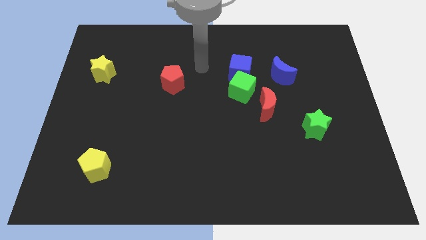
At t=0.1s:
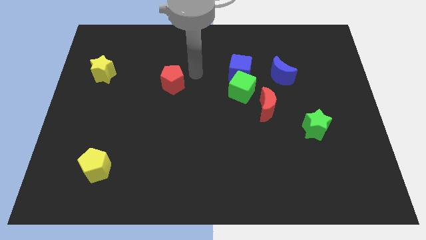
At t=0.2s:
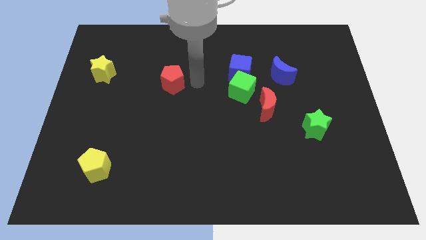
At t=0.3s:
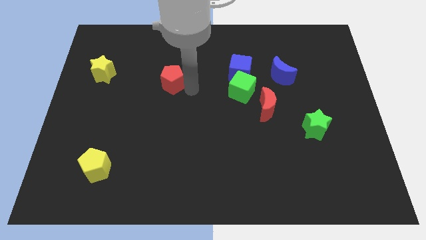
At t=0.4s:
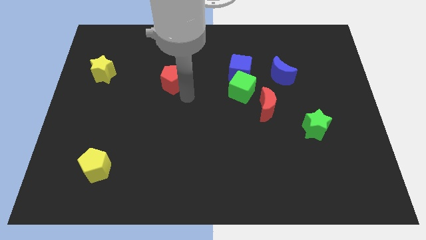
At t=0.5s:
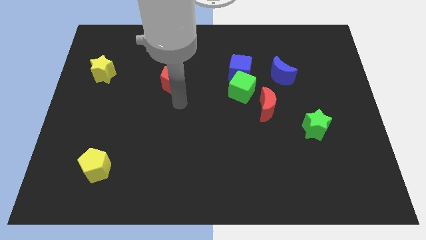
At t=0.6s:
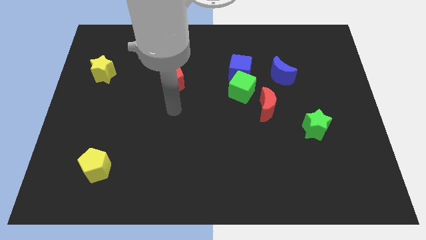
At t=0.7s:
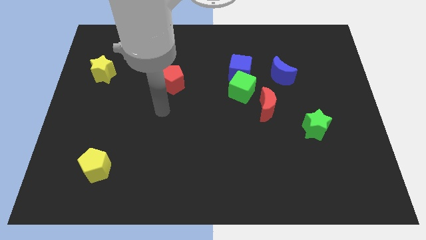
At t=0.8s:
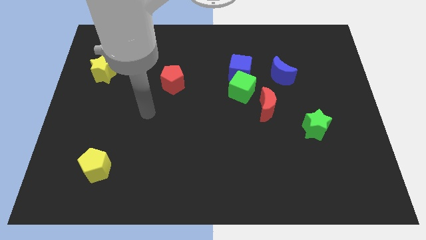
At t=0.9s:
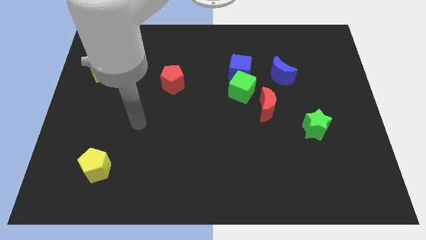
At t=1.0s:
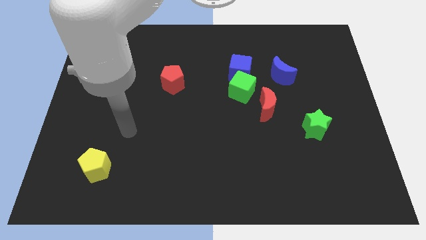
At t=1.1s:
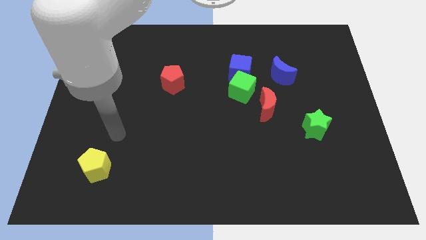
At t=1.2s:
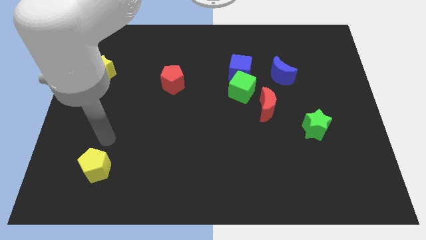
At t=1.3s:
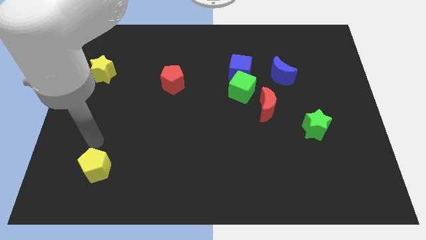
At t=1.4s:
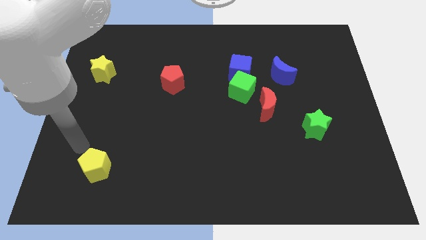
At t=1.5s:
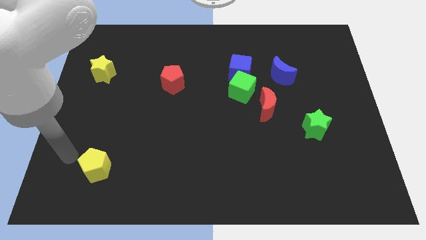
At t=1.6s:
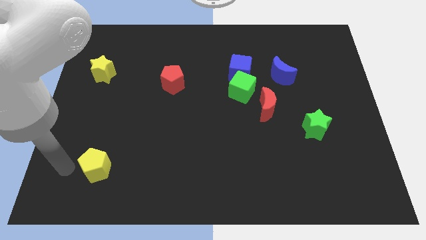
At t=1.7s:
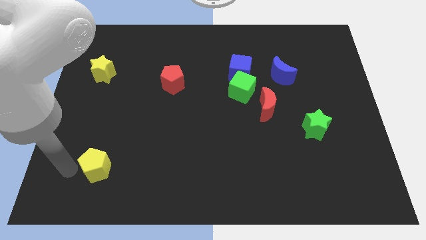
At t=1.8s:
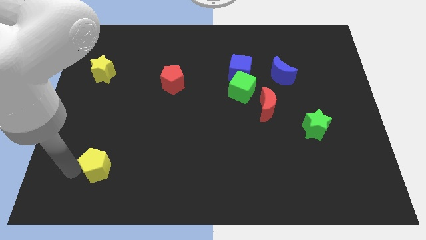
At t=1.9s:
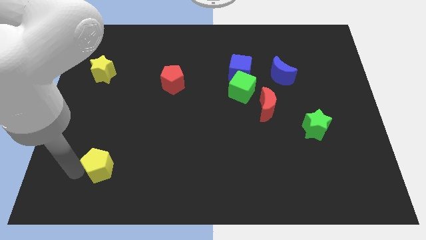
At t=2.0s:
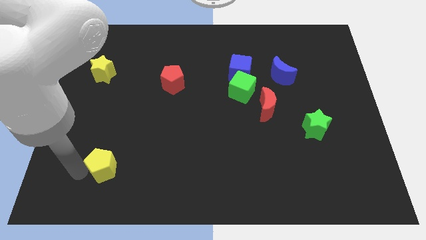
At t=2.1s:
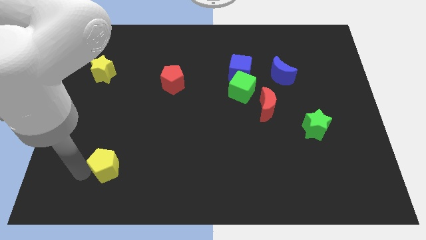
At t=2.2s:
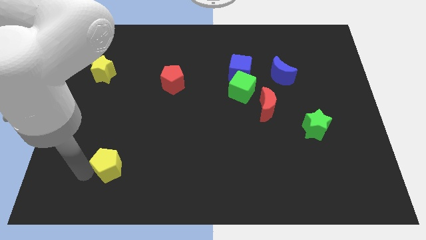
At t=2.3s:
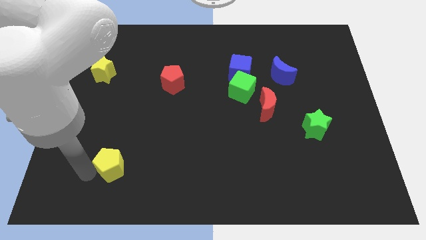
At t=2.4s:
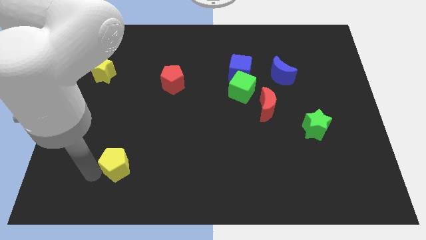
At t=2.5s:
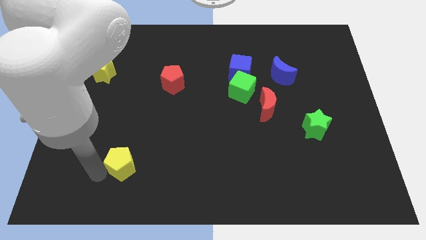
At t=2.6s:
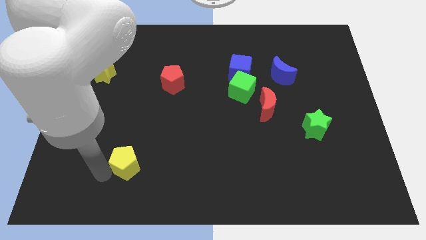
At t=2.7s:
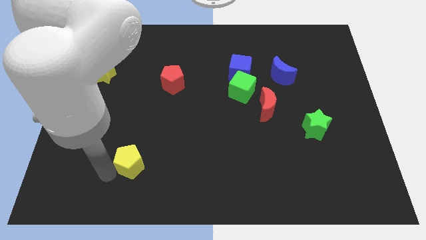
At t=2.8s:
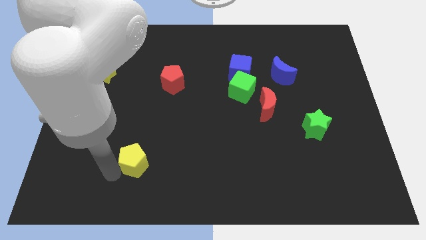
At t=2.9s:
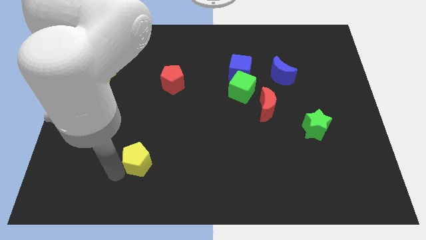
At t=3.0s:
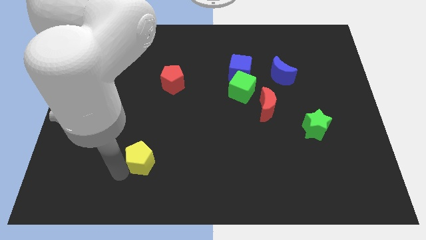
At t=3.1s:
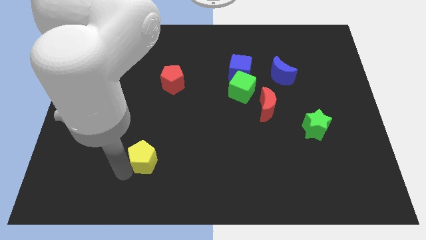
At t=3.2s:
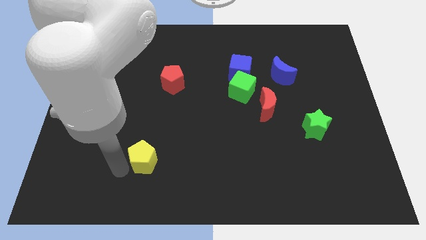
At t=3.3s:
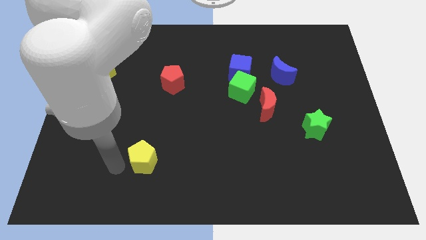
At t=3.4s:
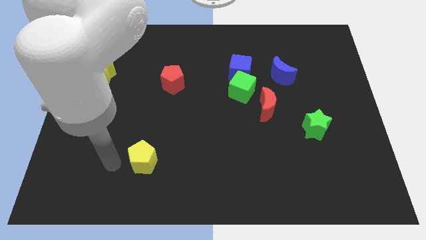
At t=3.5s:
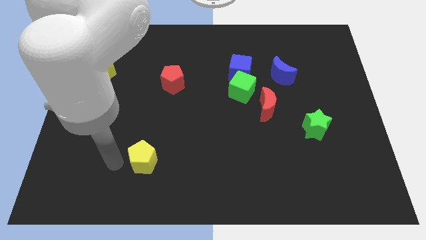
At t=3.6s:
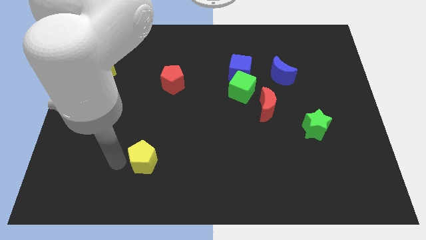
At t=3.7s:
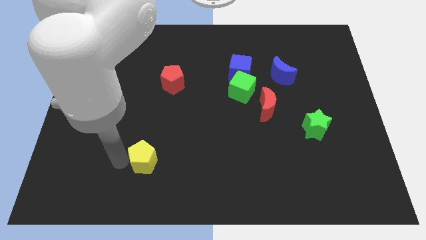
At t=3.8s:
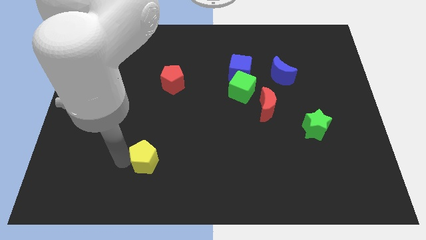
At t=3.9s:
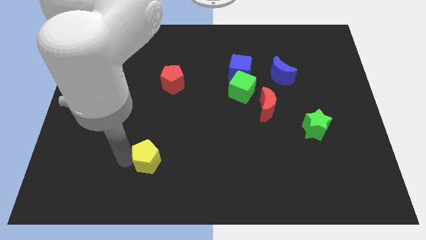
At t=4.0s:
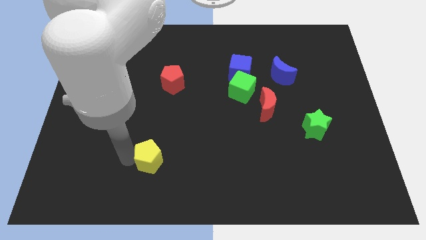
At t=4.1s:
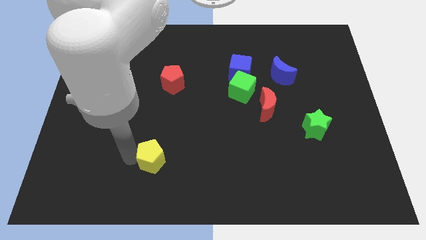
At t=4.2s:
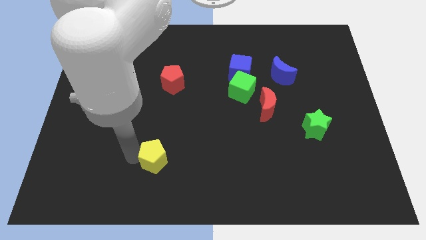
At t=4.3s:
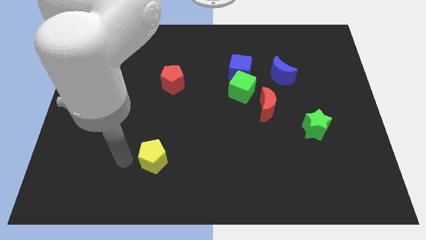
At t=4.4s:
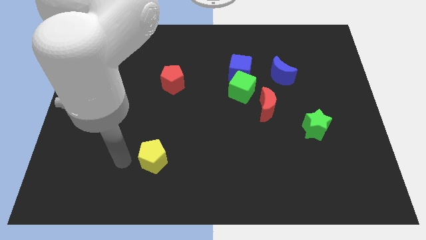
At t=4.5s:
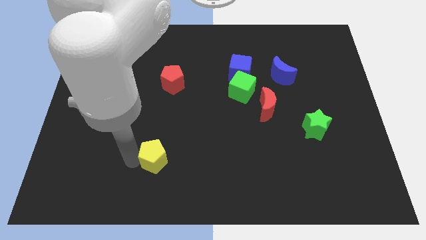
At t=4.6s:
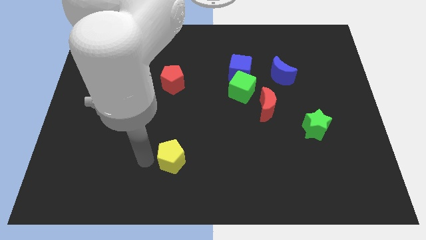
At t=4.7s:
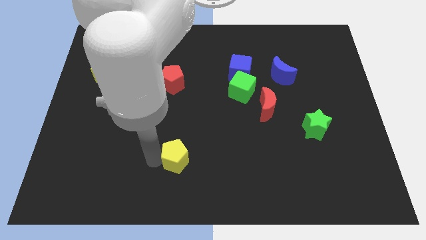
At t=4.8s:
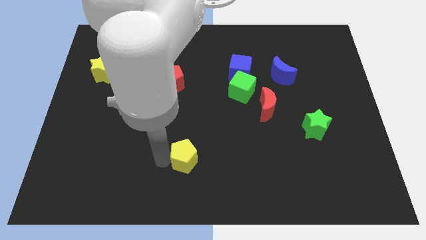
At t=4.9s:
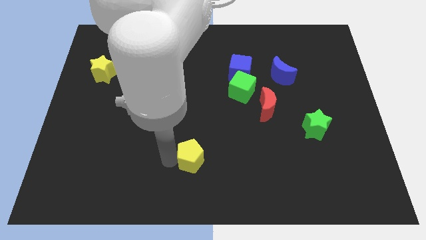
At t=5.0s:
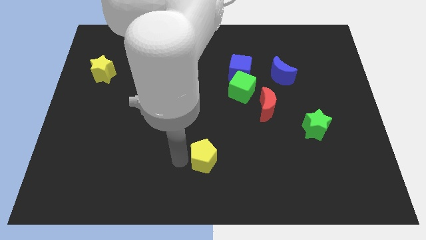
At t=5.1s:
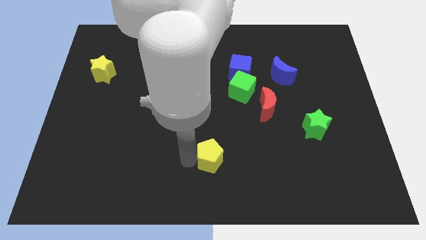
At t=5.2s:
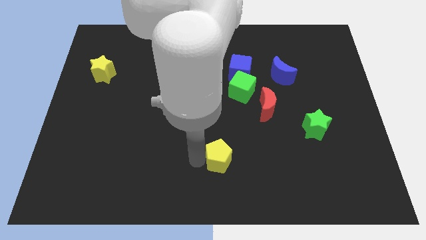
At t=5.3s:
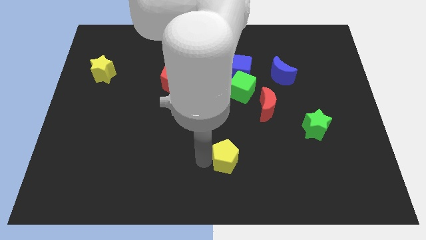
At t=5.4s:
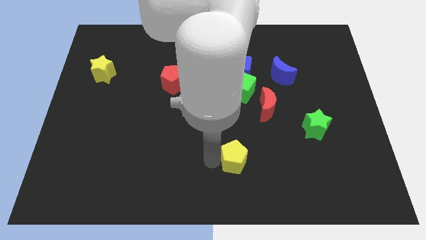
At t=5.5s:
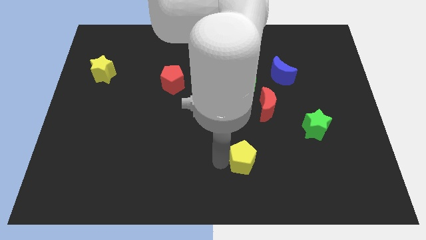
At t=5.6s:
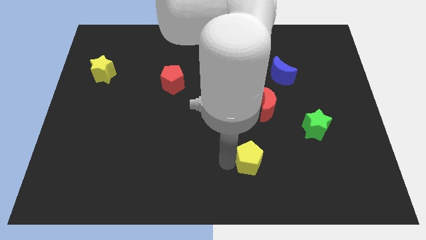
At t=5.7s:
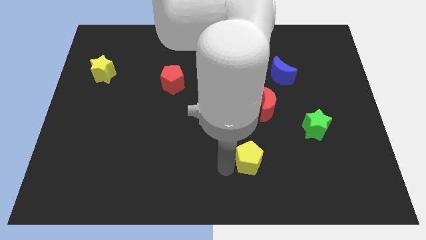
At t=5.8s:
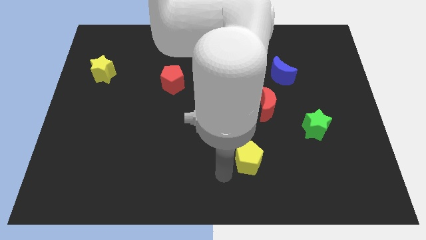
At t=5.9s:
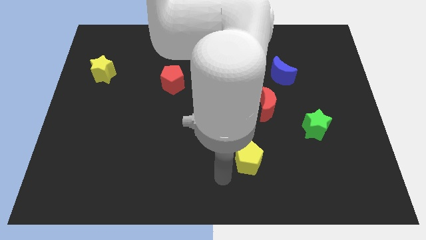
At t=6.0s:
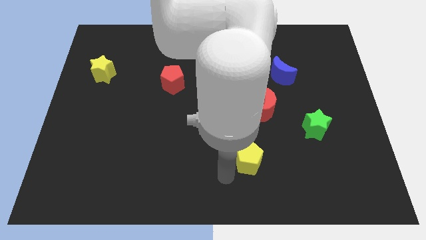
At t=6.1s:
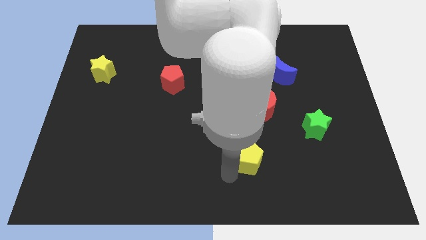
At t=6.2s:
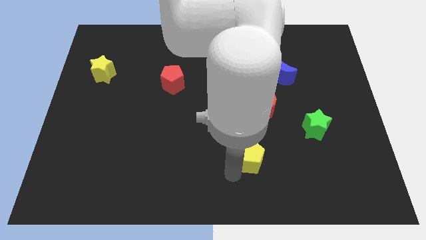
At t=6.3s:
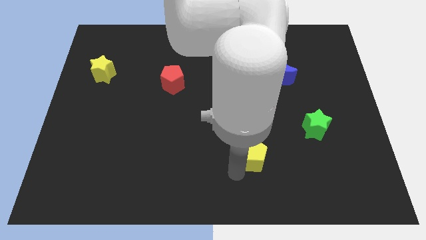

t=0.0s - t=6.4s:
move the yellow pentagon below the red moon

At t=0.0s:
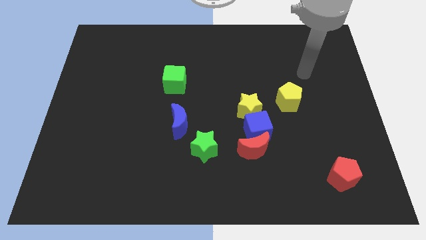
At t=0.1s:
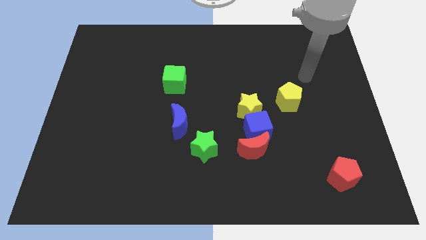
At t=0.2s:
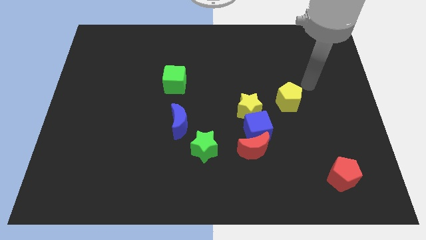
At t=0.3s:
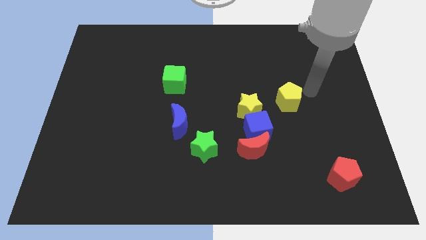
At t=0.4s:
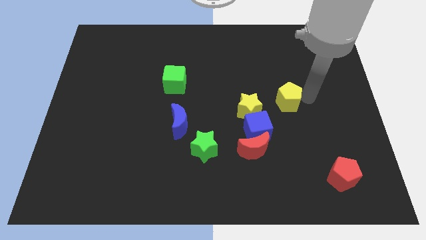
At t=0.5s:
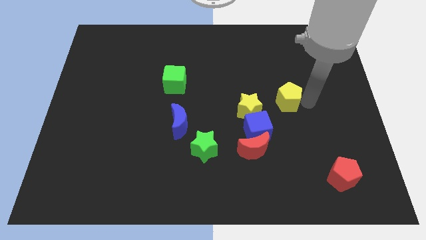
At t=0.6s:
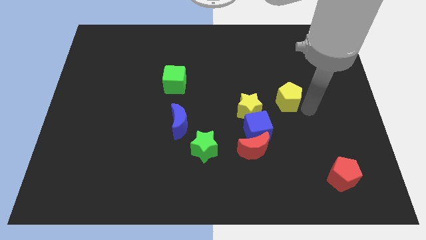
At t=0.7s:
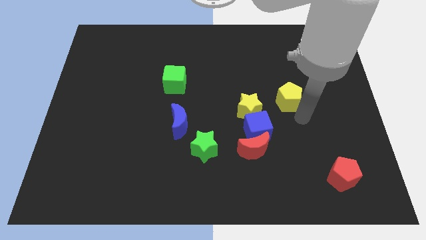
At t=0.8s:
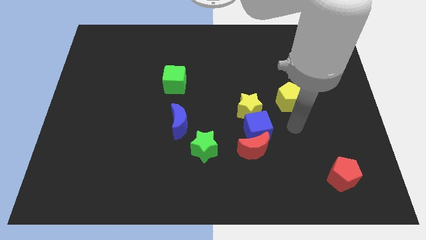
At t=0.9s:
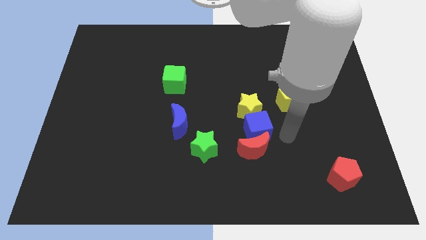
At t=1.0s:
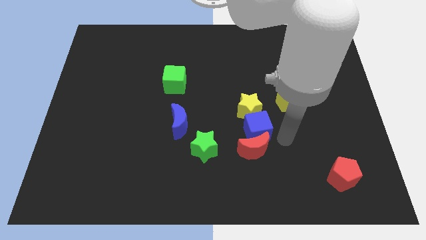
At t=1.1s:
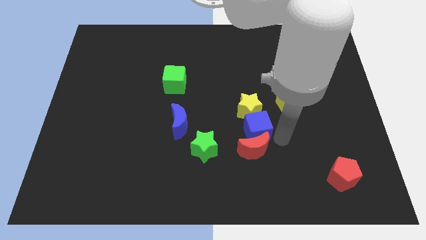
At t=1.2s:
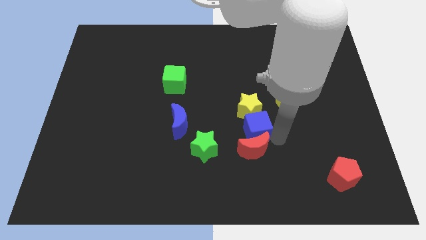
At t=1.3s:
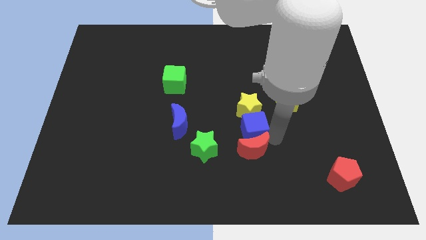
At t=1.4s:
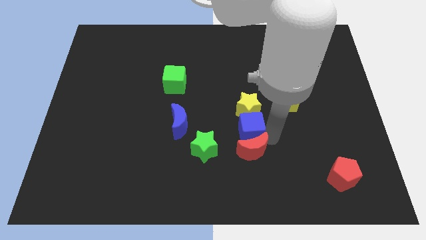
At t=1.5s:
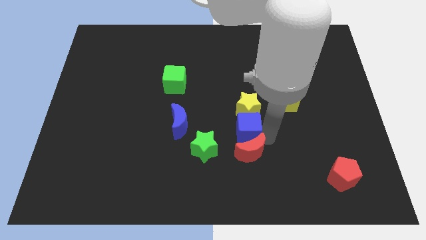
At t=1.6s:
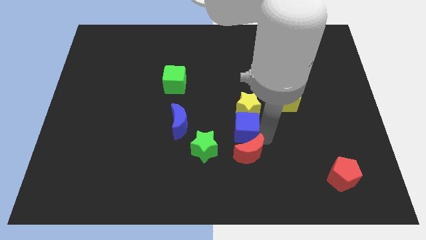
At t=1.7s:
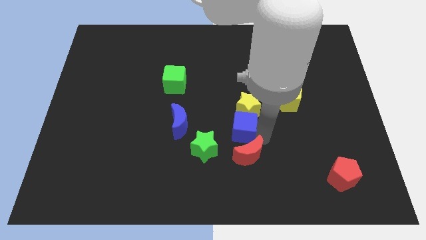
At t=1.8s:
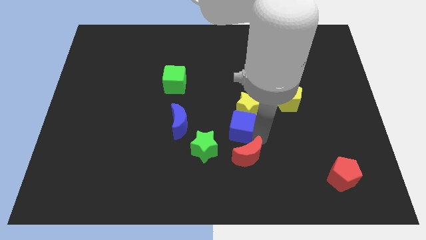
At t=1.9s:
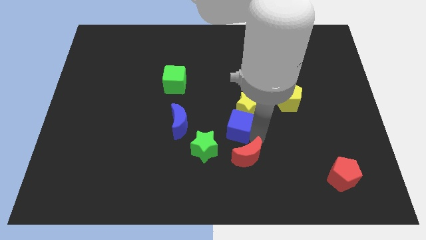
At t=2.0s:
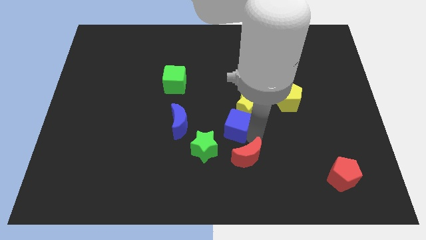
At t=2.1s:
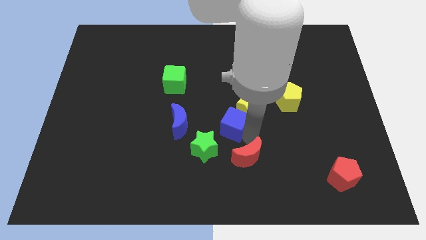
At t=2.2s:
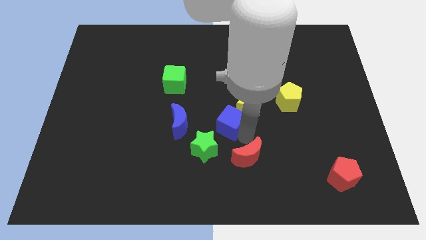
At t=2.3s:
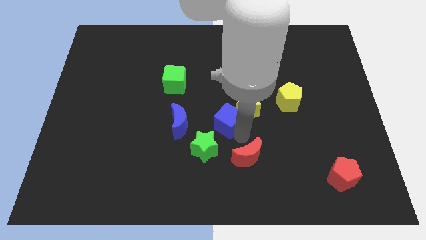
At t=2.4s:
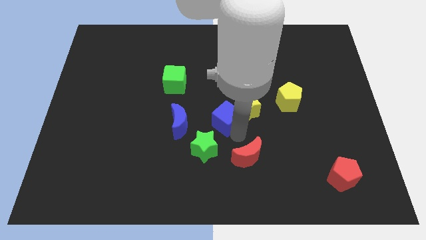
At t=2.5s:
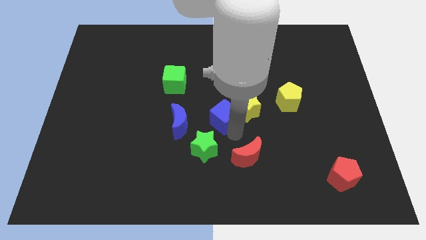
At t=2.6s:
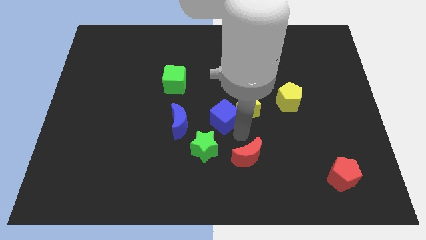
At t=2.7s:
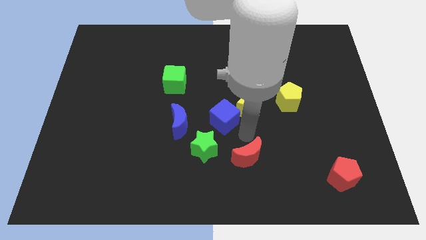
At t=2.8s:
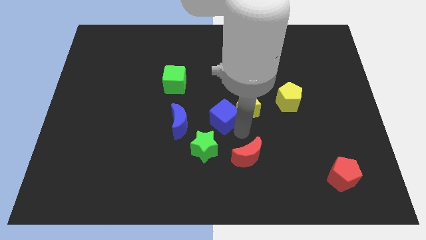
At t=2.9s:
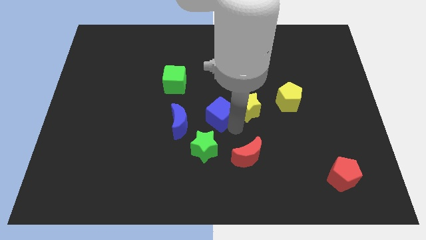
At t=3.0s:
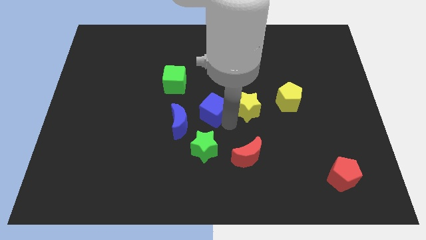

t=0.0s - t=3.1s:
move the blue cube diagonally up and to the right of the blue moon
